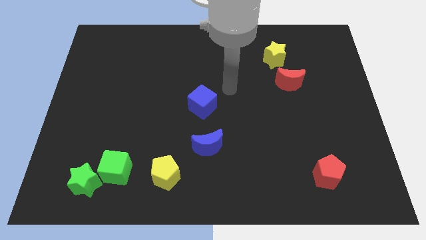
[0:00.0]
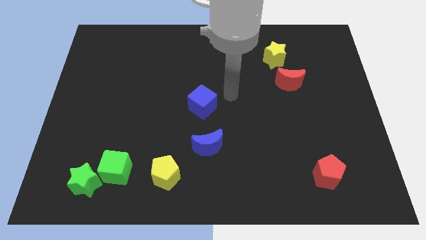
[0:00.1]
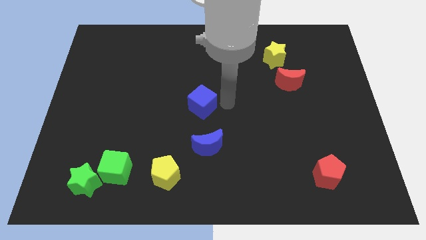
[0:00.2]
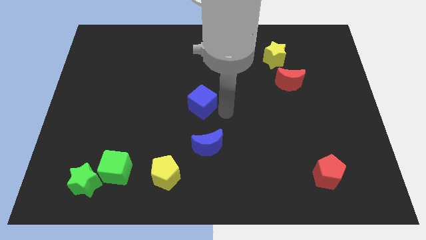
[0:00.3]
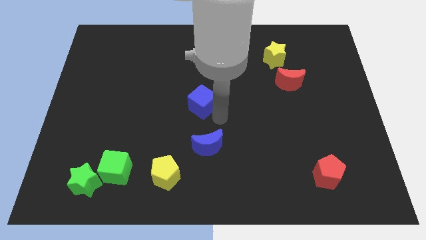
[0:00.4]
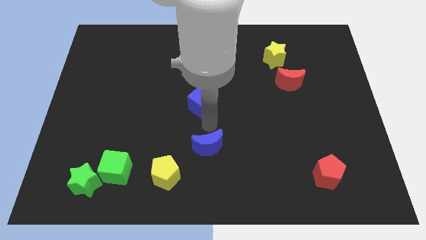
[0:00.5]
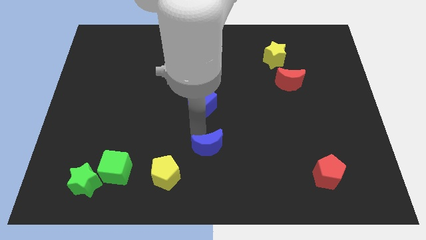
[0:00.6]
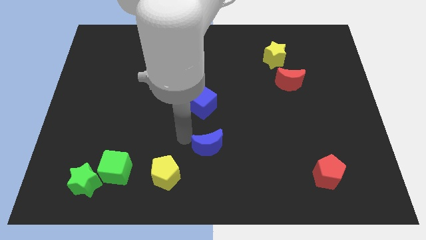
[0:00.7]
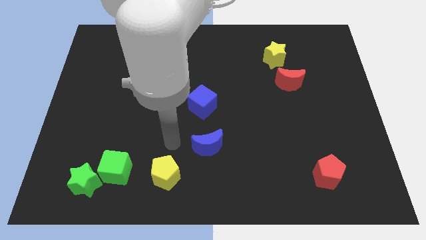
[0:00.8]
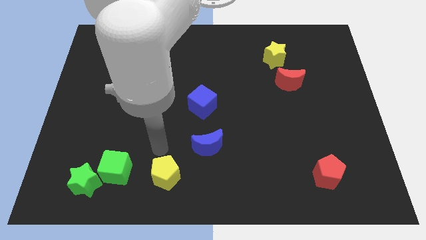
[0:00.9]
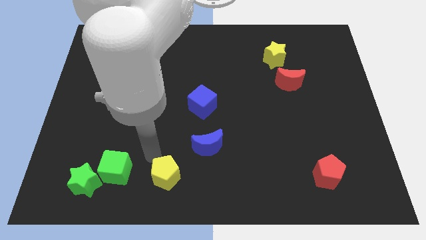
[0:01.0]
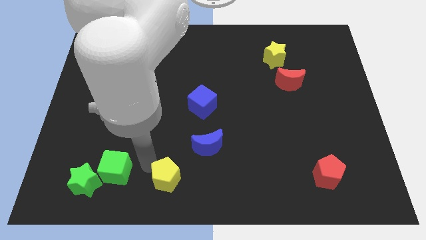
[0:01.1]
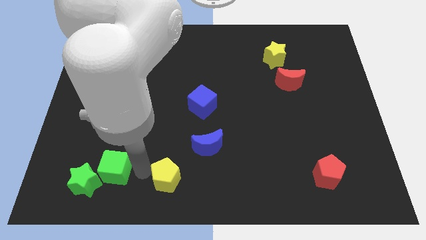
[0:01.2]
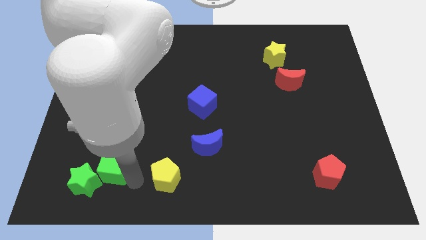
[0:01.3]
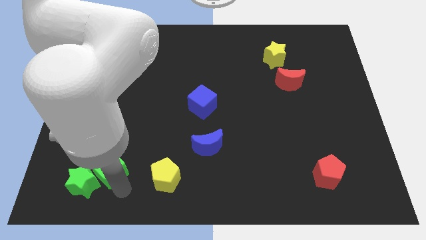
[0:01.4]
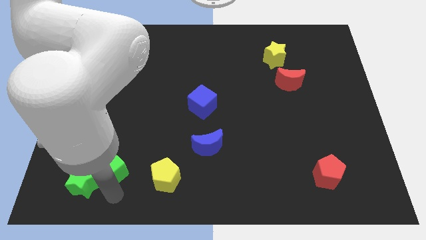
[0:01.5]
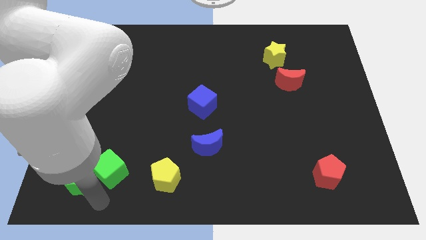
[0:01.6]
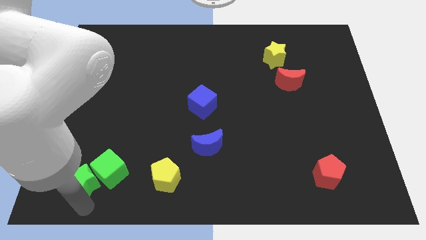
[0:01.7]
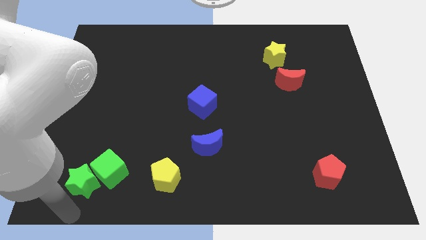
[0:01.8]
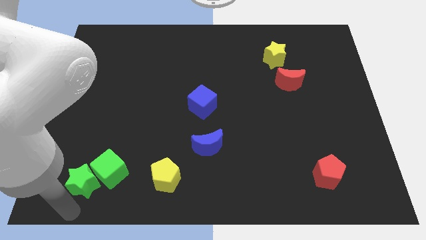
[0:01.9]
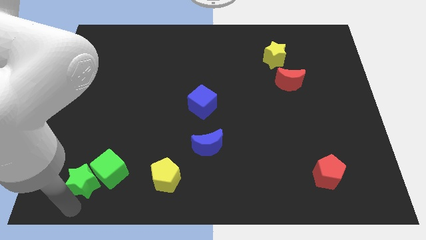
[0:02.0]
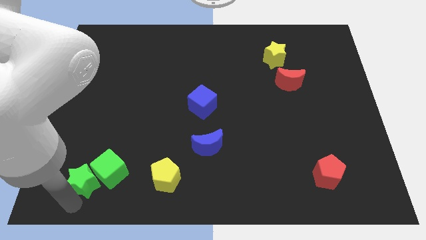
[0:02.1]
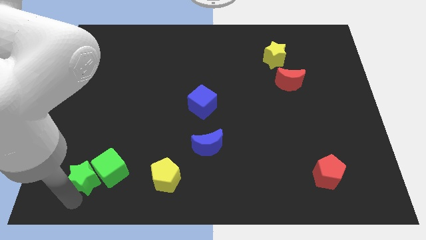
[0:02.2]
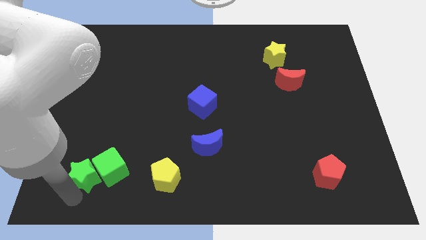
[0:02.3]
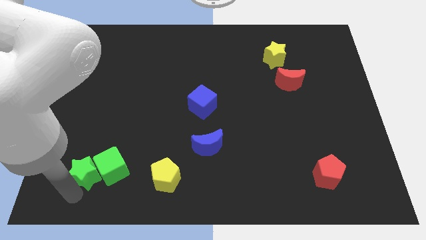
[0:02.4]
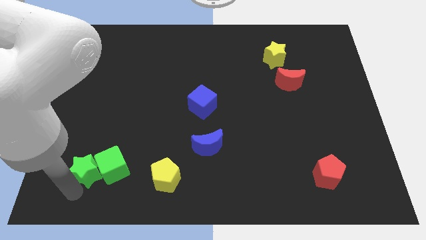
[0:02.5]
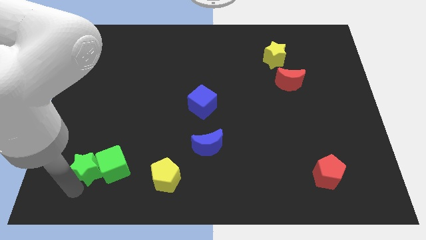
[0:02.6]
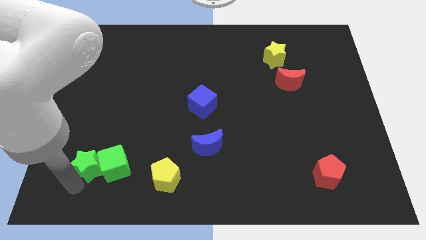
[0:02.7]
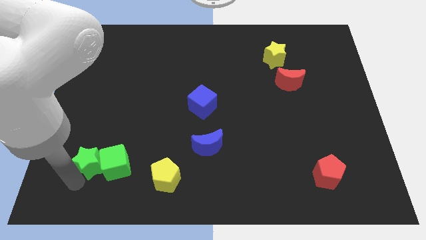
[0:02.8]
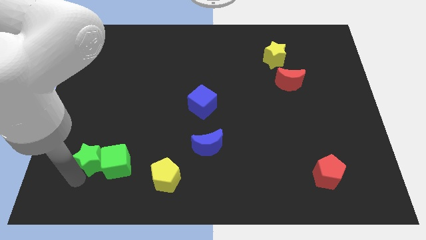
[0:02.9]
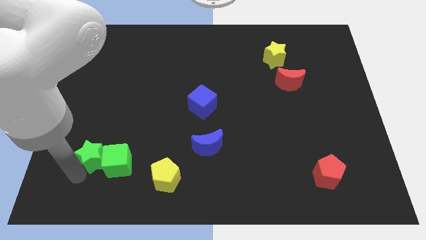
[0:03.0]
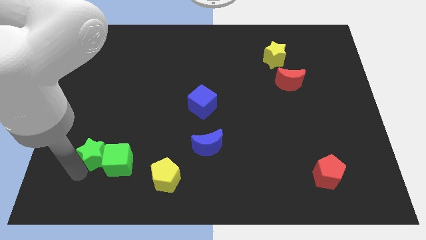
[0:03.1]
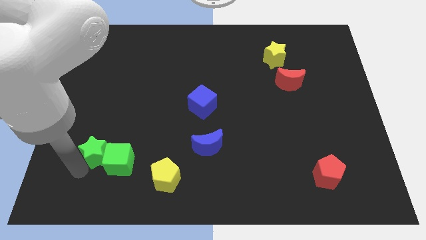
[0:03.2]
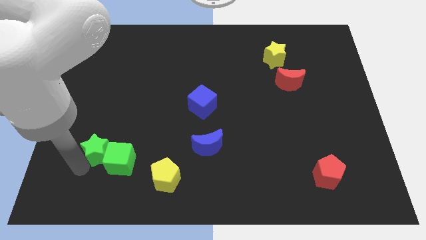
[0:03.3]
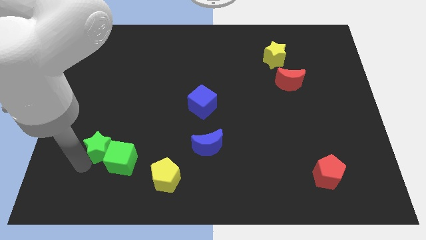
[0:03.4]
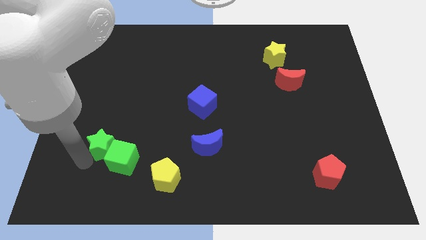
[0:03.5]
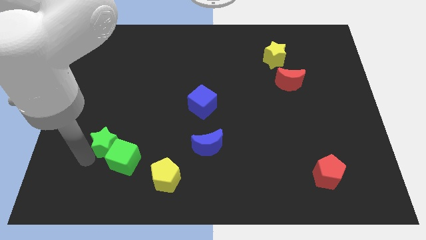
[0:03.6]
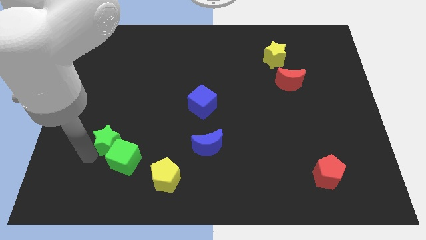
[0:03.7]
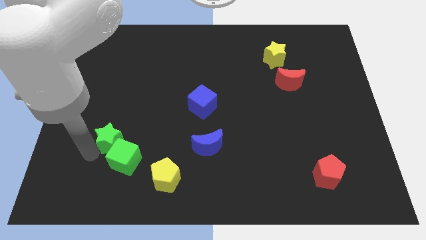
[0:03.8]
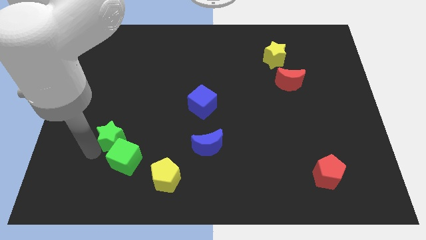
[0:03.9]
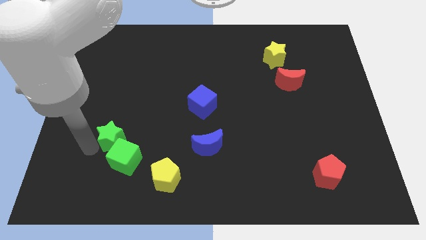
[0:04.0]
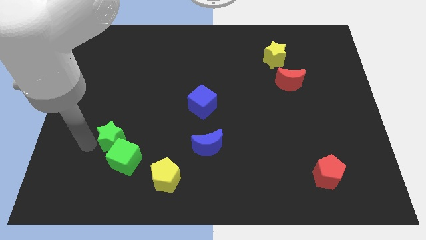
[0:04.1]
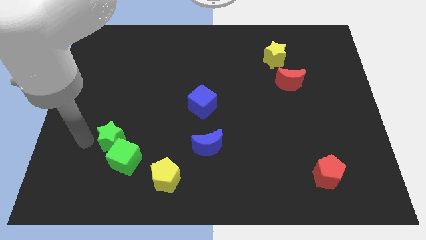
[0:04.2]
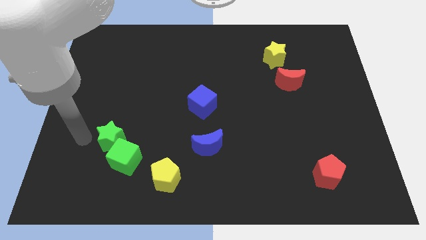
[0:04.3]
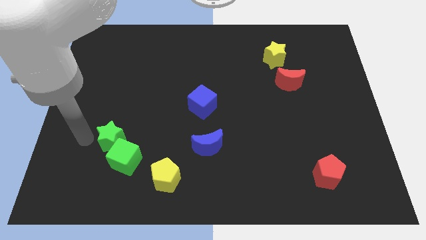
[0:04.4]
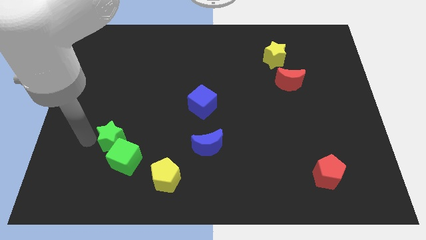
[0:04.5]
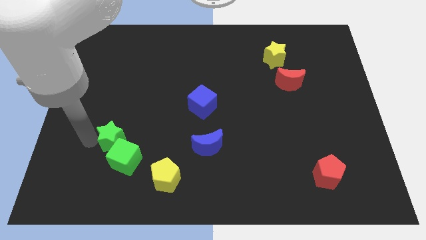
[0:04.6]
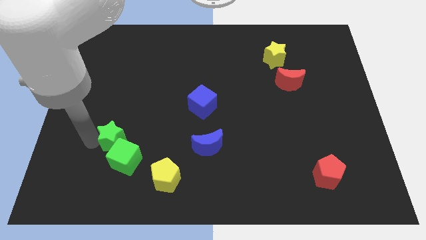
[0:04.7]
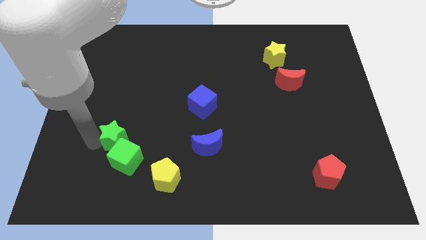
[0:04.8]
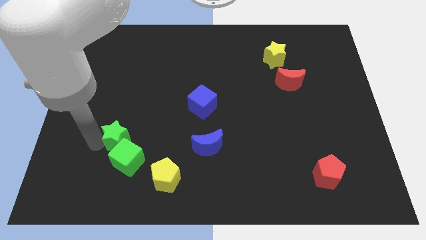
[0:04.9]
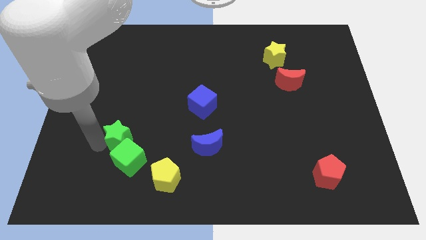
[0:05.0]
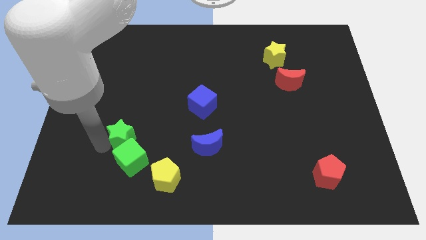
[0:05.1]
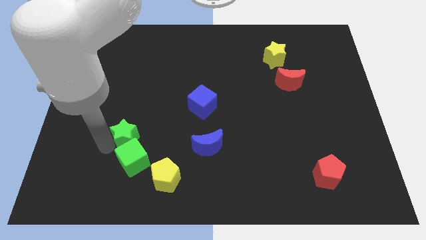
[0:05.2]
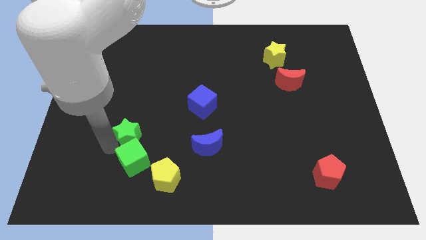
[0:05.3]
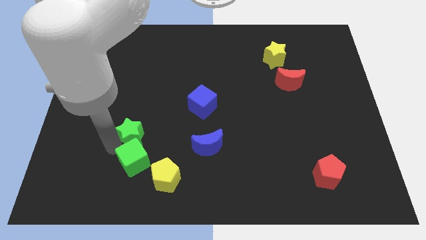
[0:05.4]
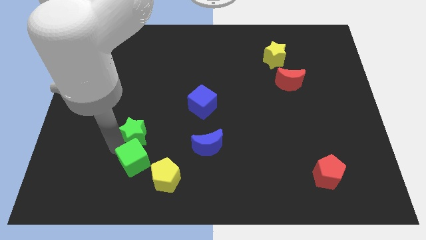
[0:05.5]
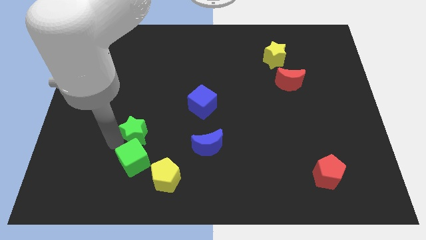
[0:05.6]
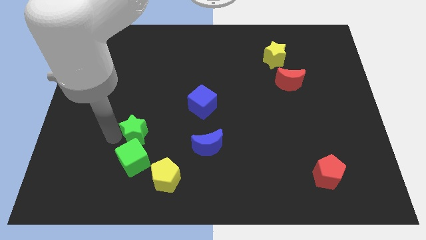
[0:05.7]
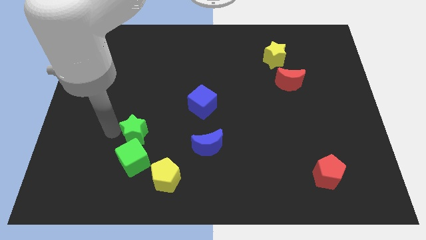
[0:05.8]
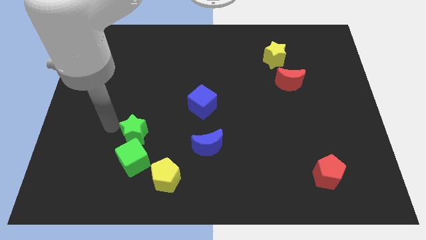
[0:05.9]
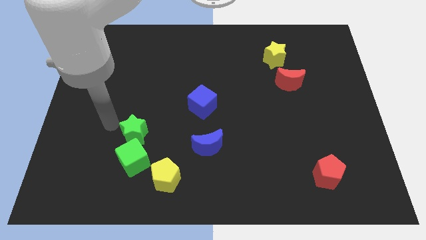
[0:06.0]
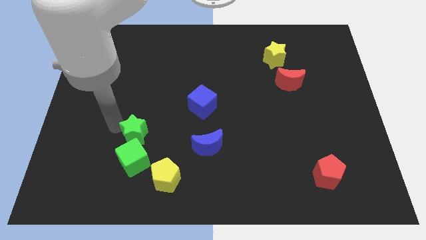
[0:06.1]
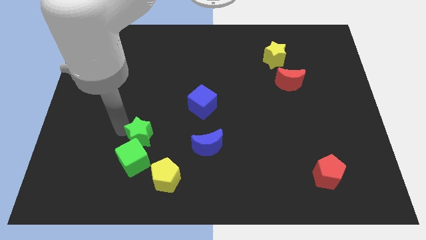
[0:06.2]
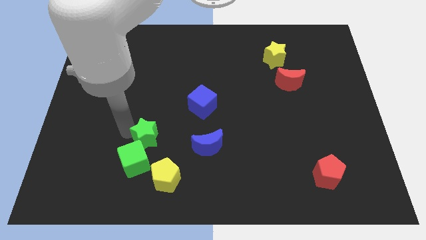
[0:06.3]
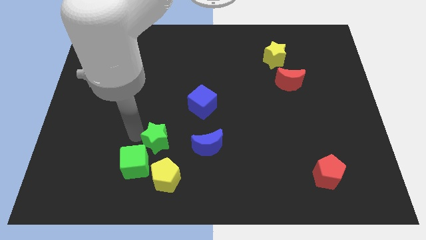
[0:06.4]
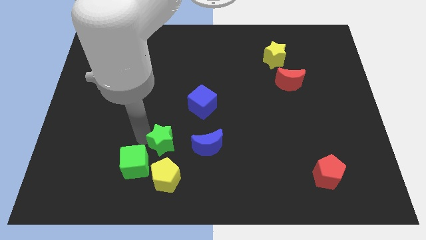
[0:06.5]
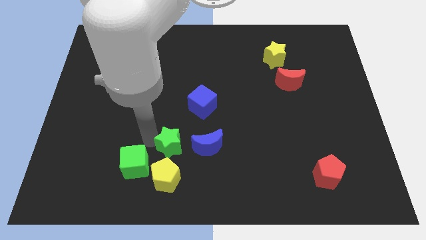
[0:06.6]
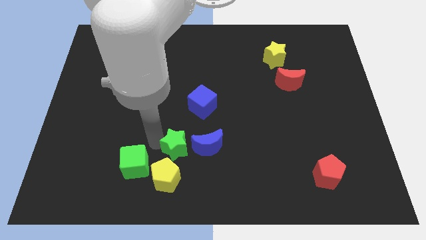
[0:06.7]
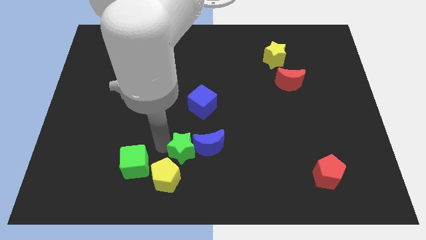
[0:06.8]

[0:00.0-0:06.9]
move the green star next to the blue moon
